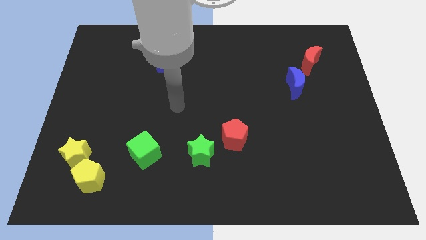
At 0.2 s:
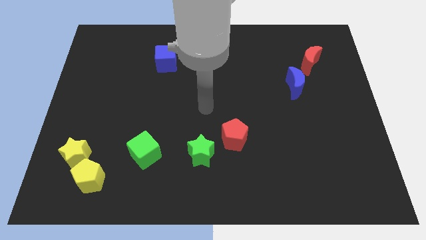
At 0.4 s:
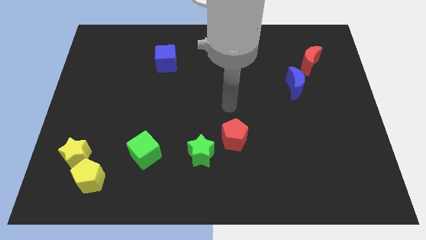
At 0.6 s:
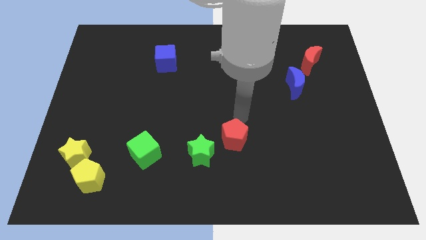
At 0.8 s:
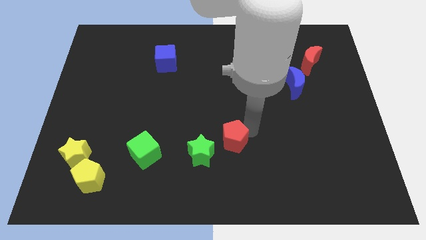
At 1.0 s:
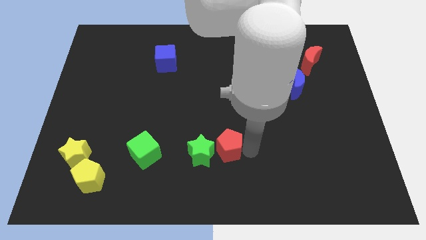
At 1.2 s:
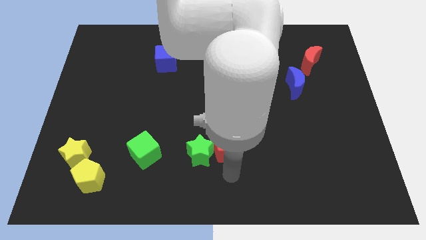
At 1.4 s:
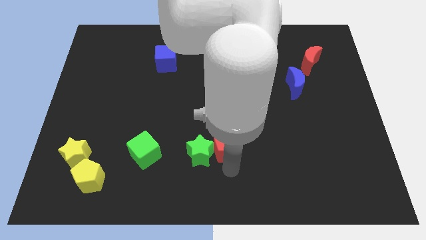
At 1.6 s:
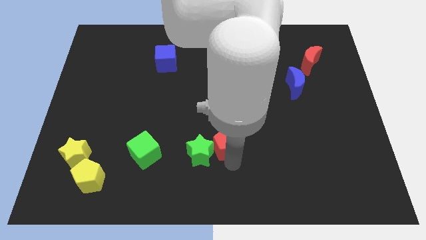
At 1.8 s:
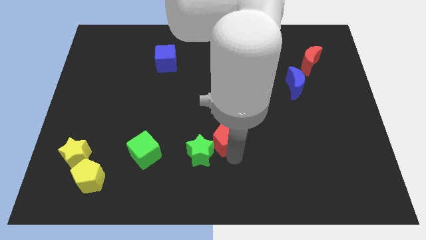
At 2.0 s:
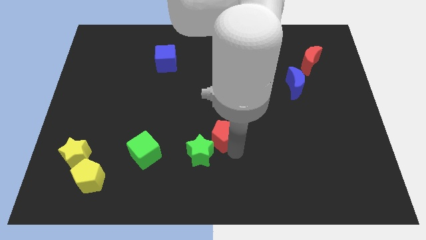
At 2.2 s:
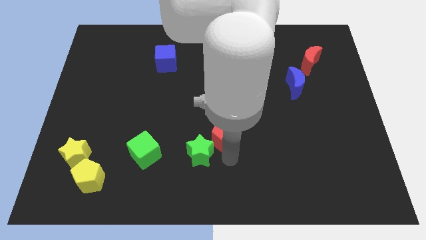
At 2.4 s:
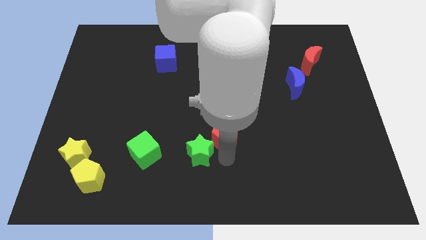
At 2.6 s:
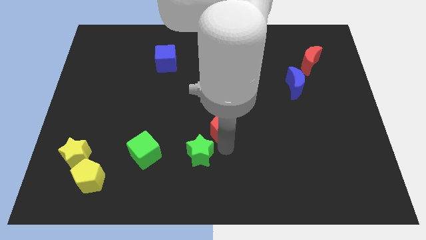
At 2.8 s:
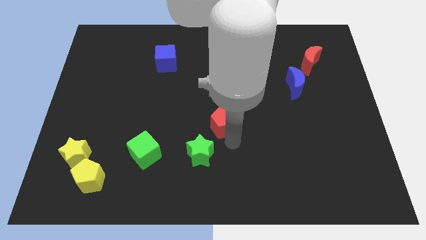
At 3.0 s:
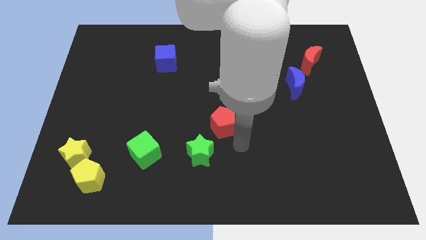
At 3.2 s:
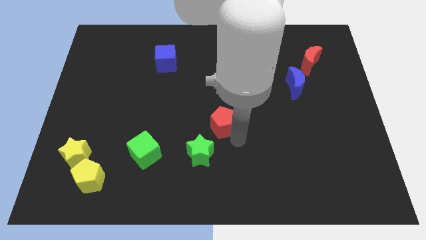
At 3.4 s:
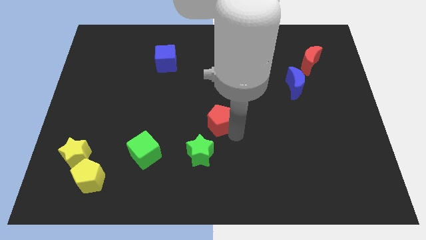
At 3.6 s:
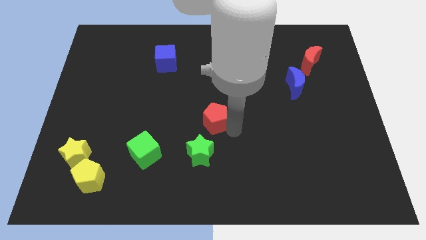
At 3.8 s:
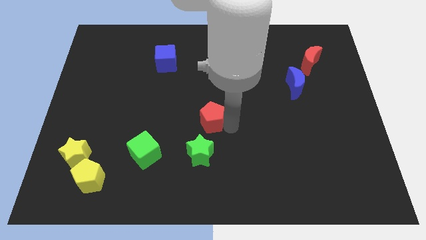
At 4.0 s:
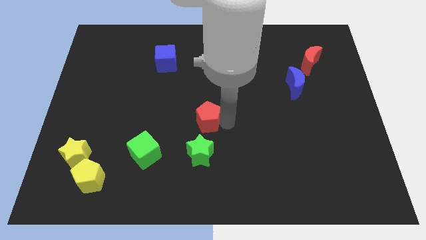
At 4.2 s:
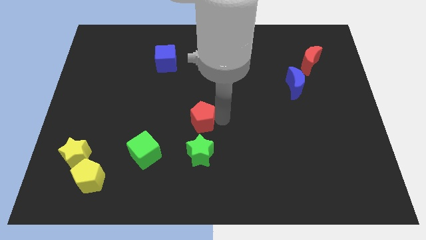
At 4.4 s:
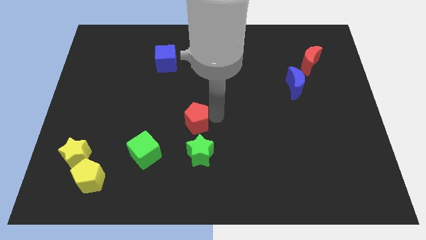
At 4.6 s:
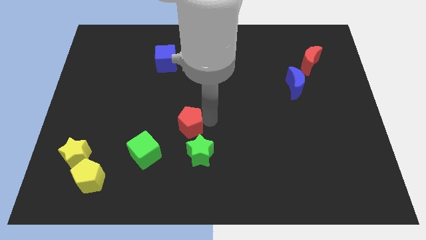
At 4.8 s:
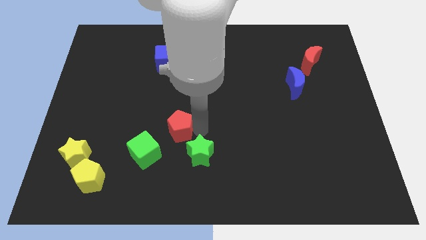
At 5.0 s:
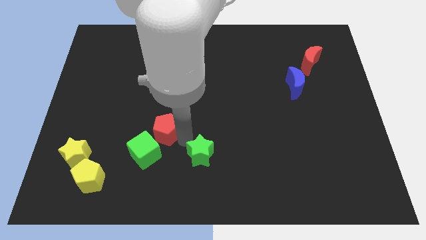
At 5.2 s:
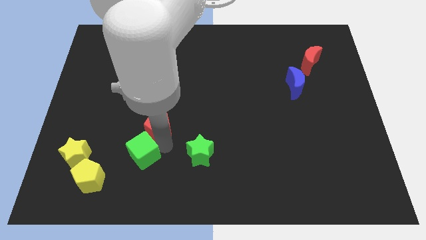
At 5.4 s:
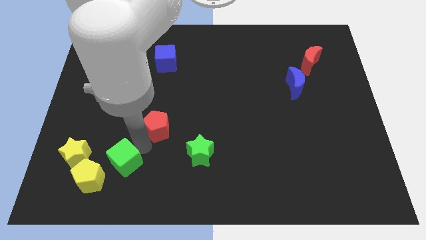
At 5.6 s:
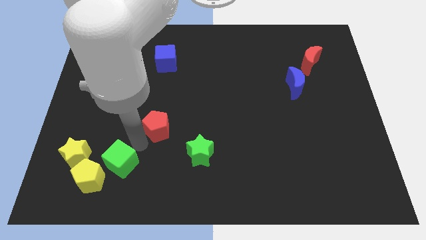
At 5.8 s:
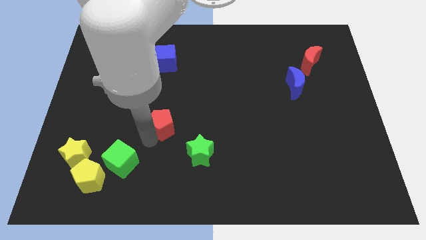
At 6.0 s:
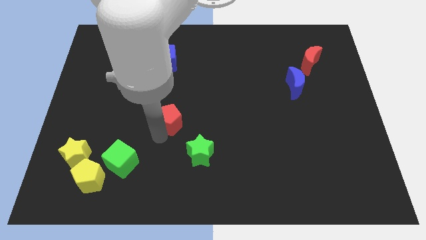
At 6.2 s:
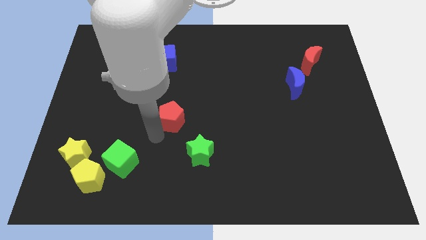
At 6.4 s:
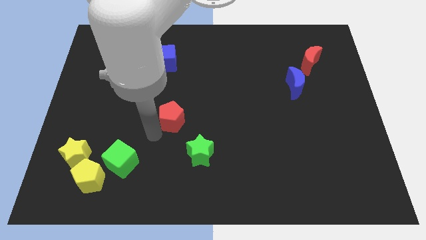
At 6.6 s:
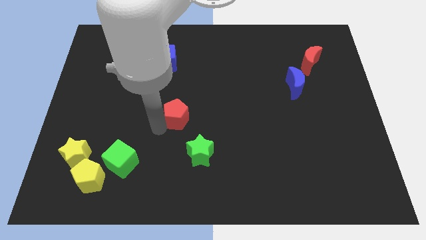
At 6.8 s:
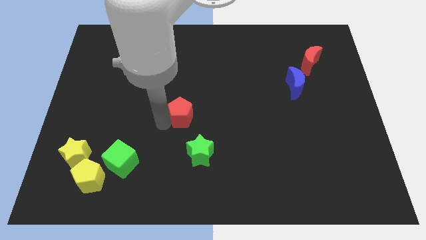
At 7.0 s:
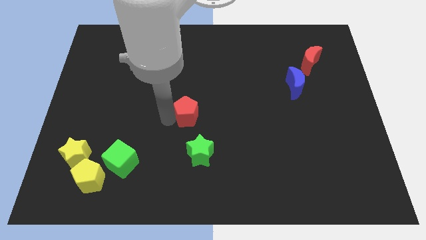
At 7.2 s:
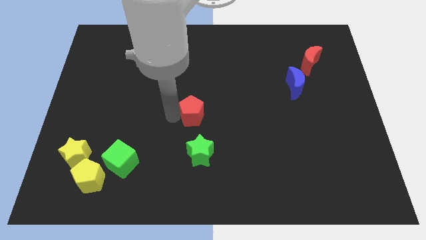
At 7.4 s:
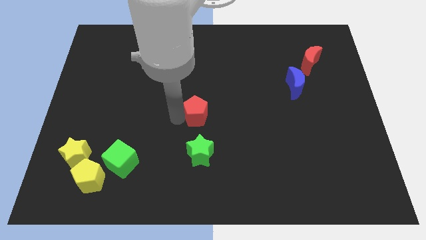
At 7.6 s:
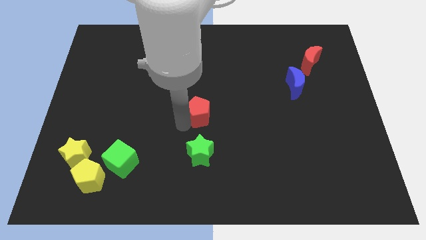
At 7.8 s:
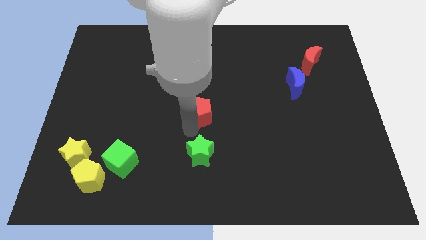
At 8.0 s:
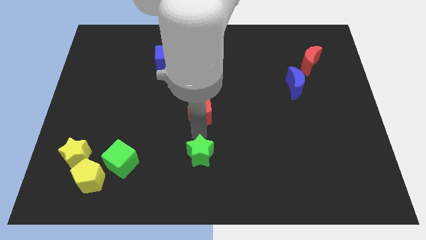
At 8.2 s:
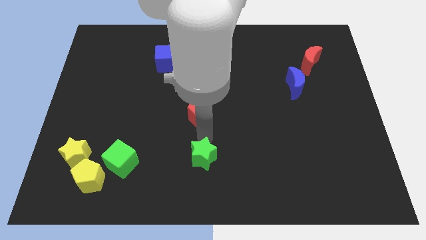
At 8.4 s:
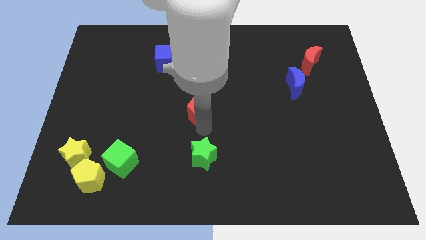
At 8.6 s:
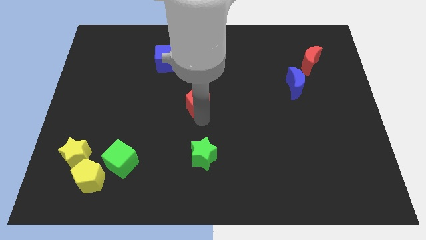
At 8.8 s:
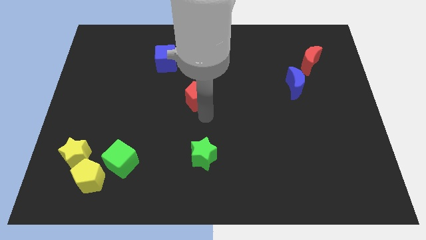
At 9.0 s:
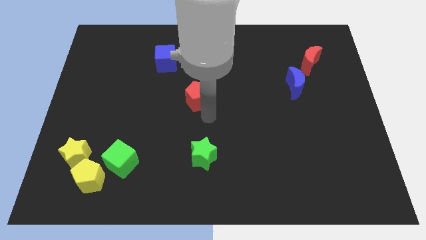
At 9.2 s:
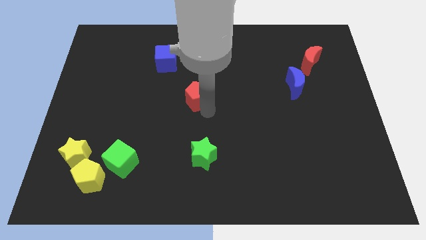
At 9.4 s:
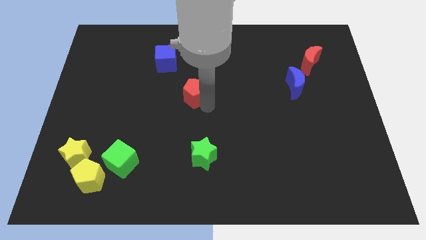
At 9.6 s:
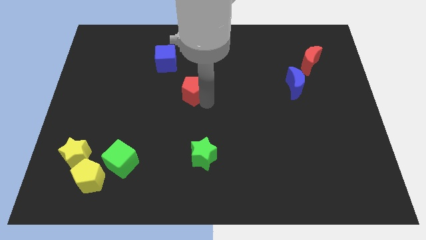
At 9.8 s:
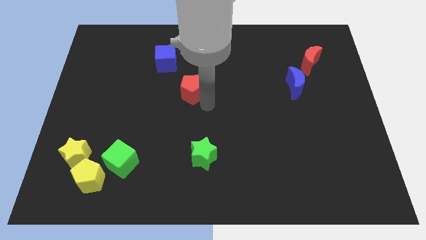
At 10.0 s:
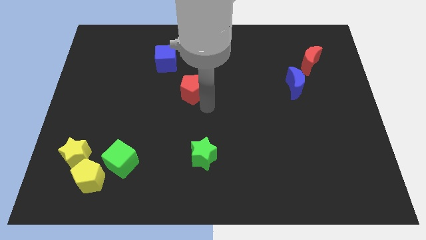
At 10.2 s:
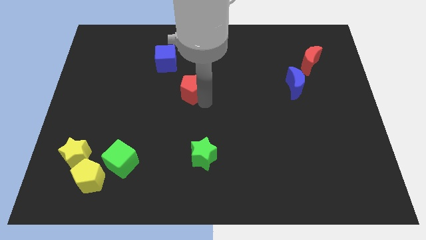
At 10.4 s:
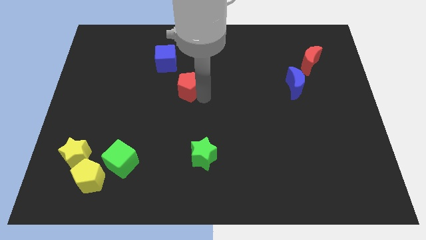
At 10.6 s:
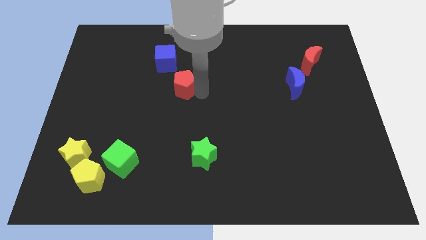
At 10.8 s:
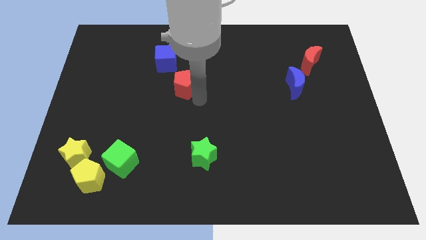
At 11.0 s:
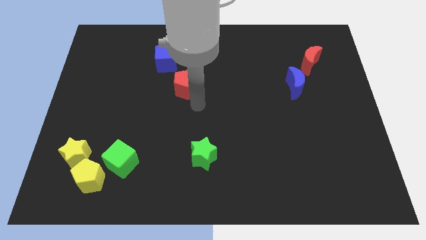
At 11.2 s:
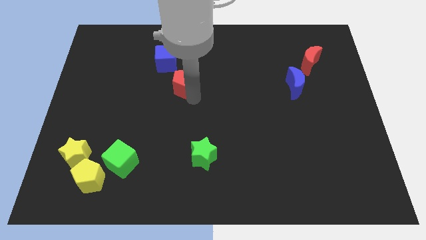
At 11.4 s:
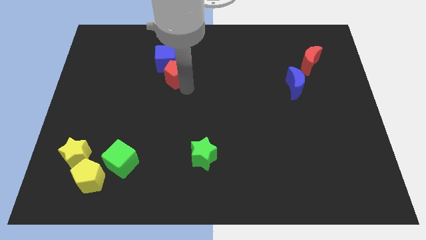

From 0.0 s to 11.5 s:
move the red pentagon close to the blue cube

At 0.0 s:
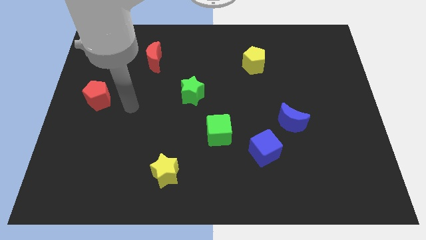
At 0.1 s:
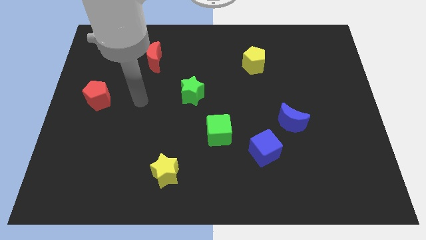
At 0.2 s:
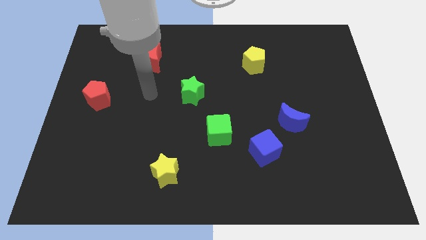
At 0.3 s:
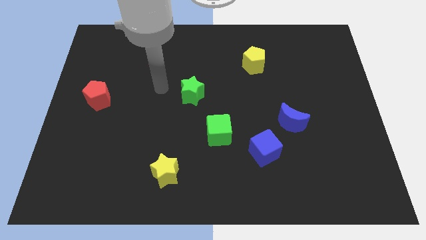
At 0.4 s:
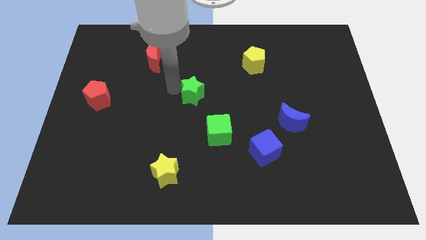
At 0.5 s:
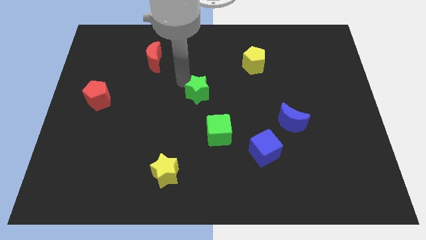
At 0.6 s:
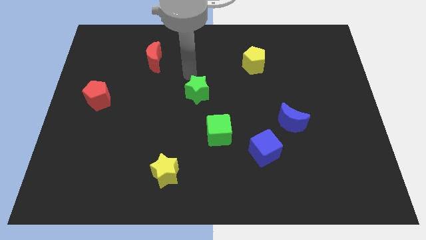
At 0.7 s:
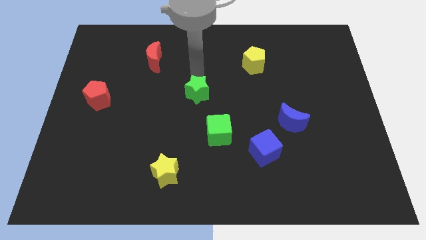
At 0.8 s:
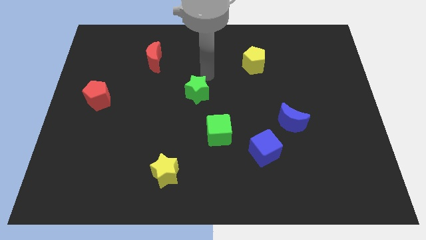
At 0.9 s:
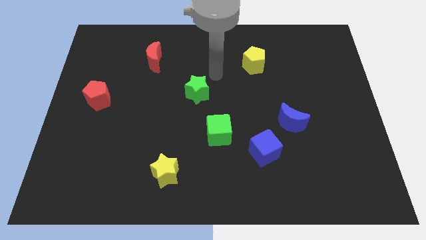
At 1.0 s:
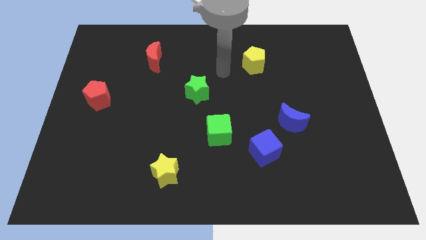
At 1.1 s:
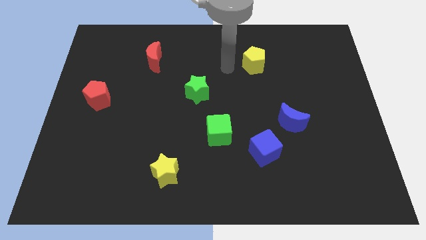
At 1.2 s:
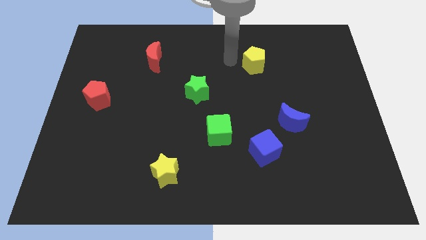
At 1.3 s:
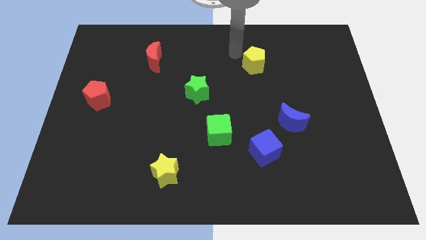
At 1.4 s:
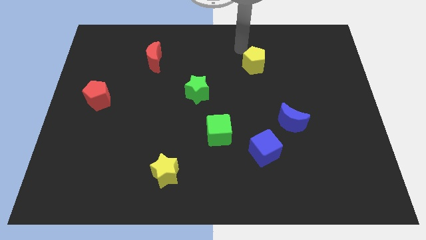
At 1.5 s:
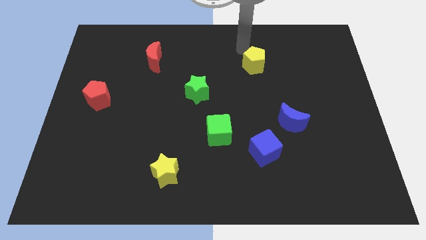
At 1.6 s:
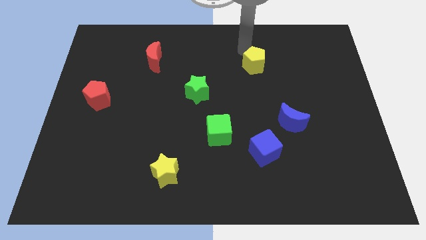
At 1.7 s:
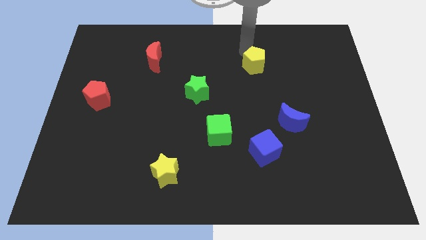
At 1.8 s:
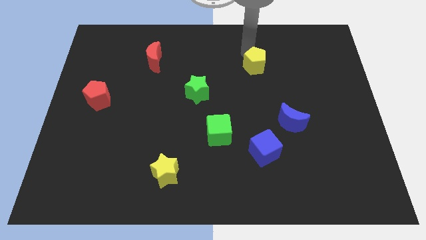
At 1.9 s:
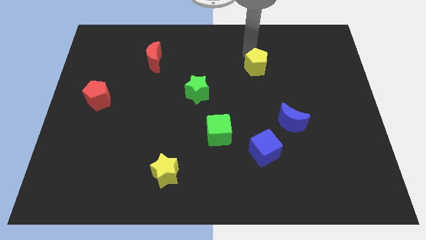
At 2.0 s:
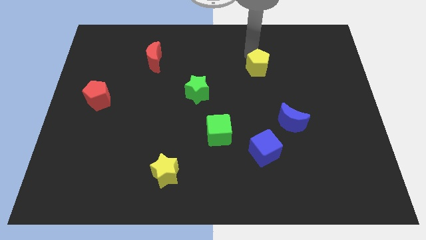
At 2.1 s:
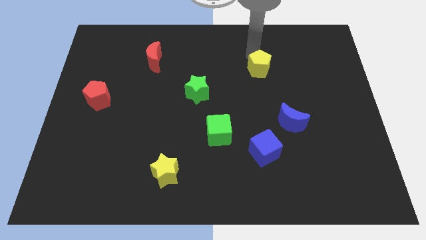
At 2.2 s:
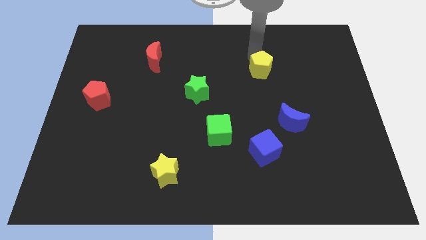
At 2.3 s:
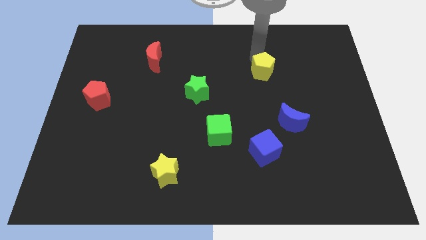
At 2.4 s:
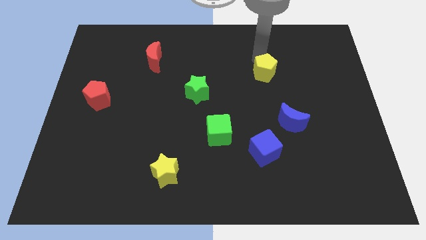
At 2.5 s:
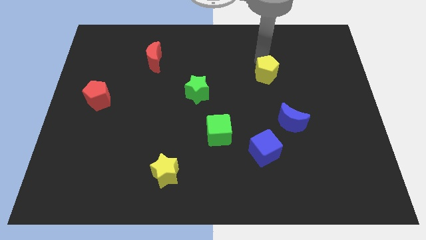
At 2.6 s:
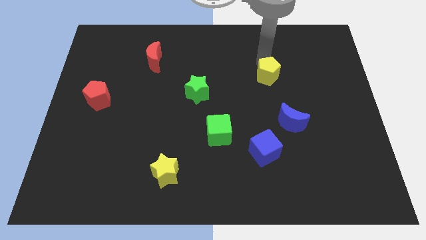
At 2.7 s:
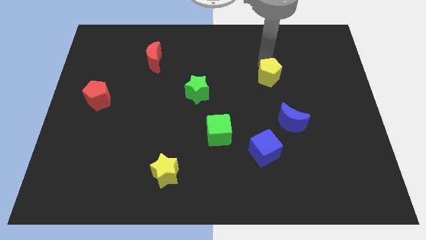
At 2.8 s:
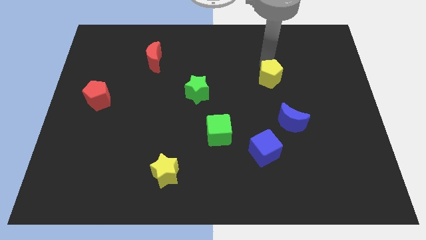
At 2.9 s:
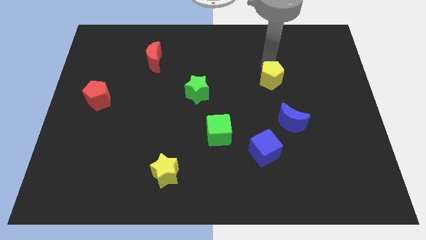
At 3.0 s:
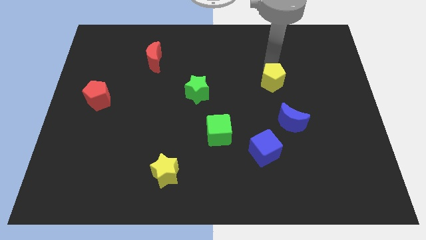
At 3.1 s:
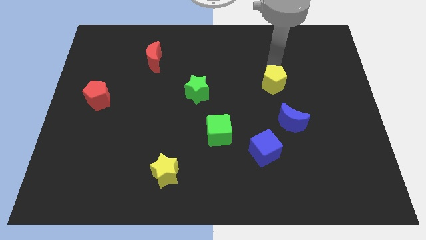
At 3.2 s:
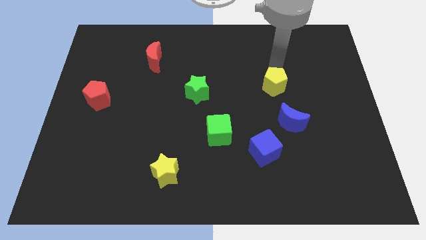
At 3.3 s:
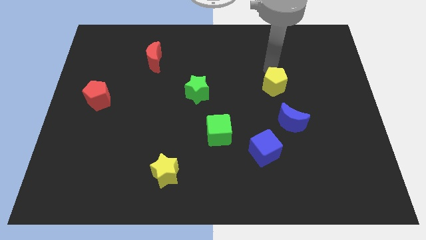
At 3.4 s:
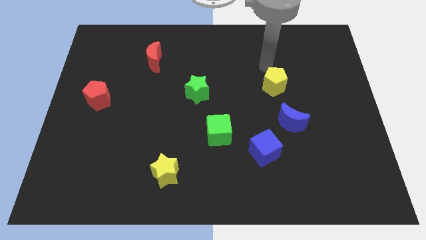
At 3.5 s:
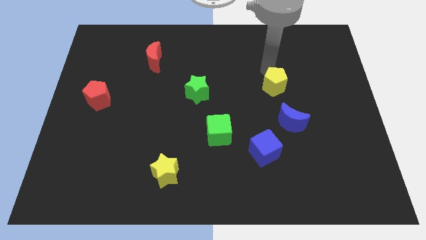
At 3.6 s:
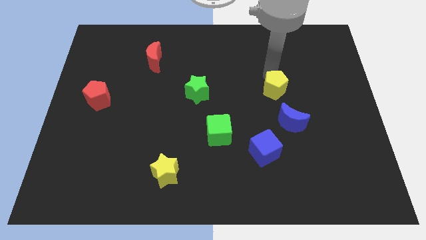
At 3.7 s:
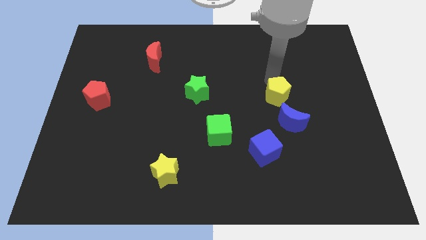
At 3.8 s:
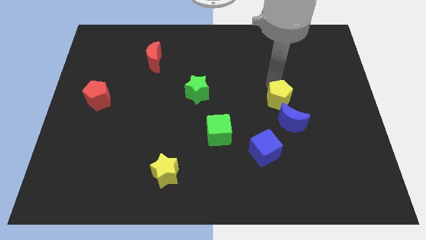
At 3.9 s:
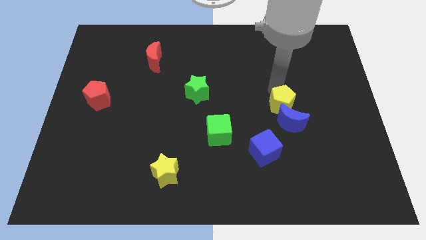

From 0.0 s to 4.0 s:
move the yellow pentagon close to the blue moon
